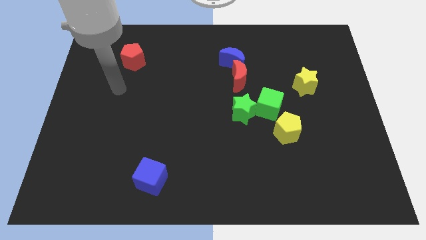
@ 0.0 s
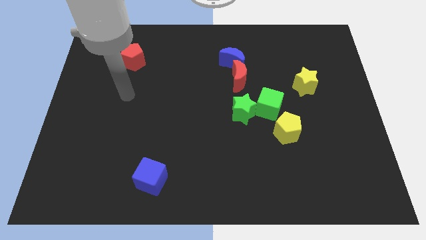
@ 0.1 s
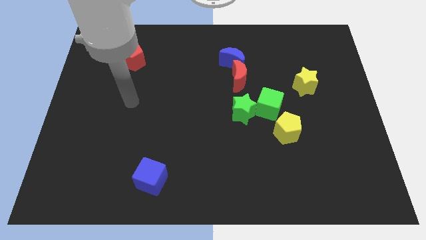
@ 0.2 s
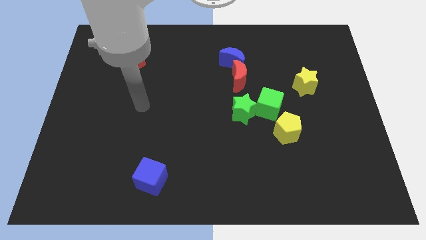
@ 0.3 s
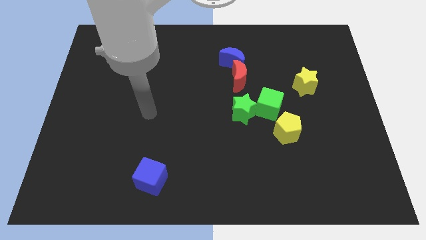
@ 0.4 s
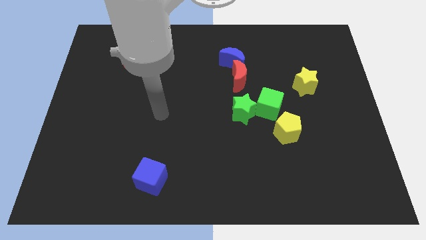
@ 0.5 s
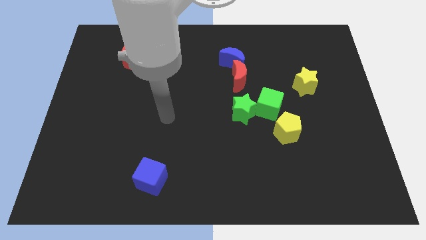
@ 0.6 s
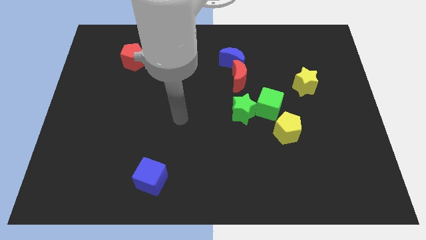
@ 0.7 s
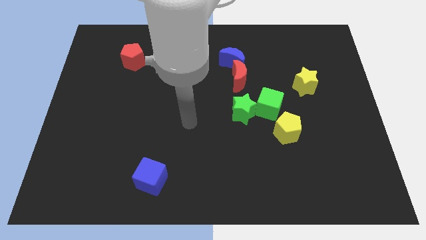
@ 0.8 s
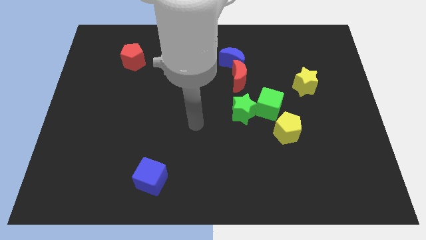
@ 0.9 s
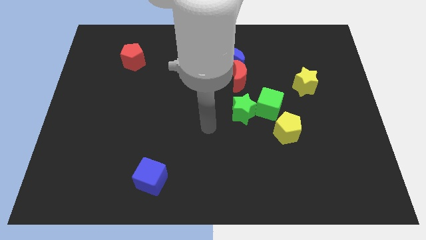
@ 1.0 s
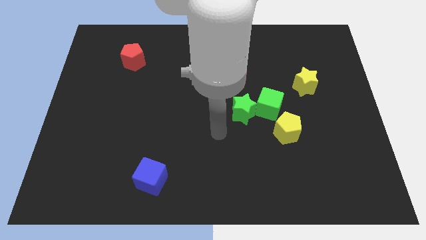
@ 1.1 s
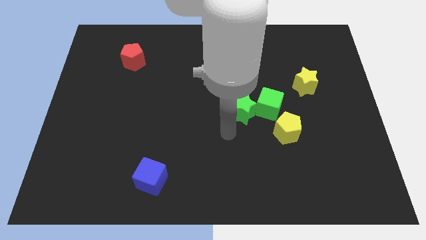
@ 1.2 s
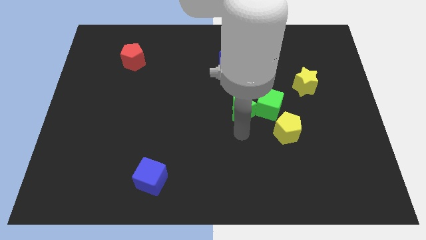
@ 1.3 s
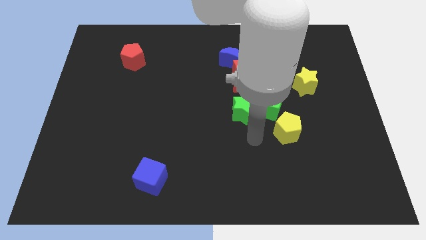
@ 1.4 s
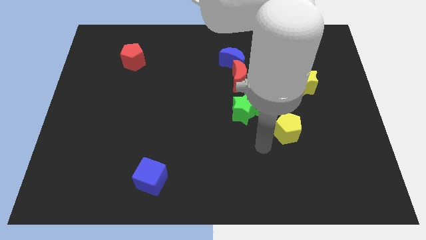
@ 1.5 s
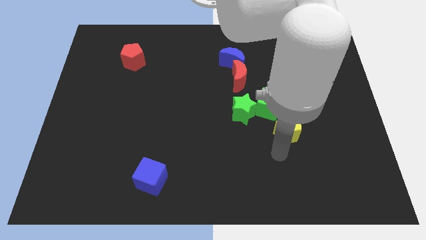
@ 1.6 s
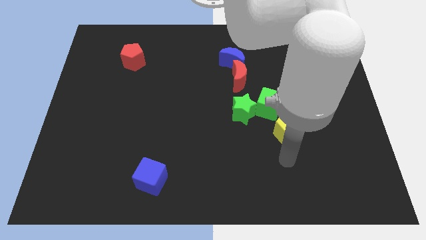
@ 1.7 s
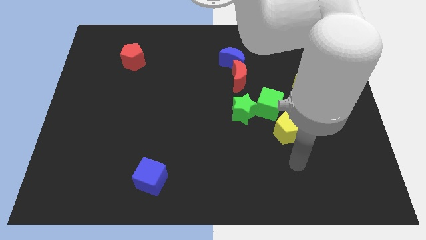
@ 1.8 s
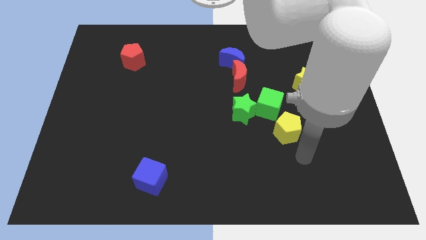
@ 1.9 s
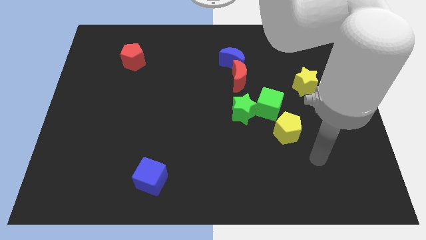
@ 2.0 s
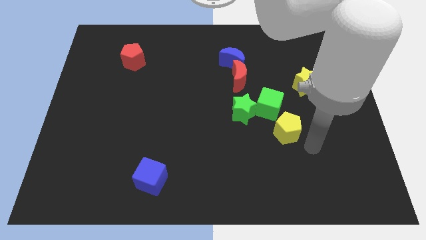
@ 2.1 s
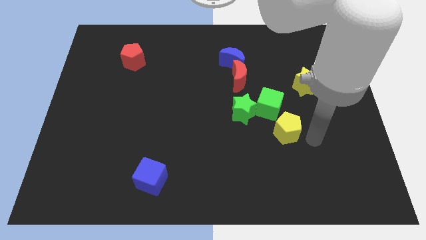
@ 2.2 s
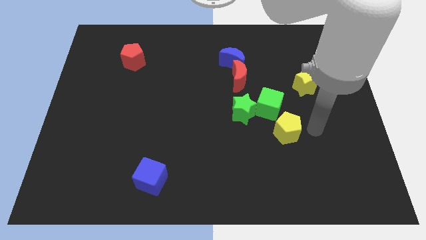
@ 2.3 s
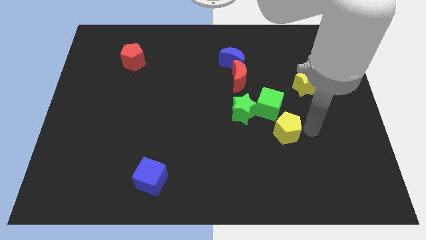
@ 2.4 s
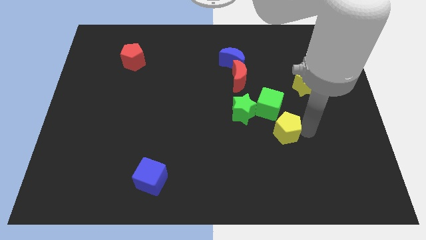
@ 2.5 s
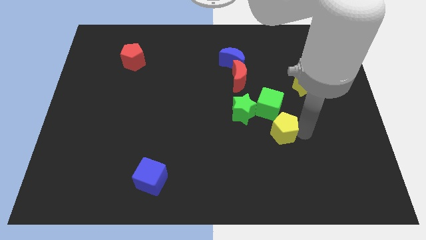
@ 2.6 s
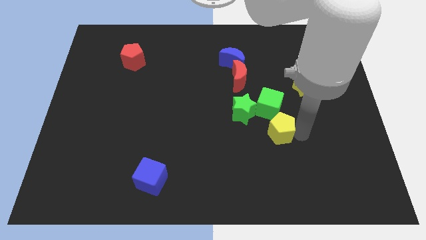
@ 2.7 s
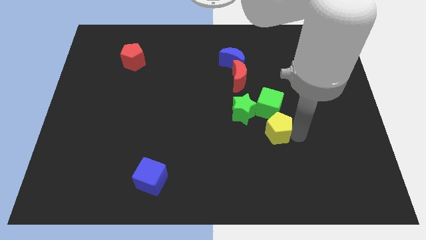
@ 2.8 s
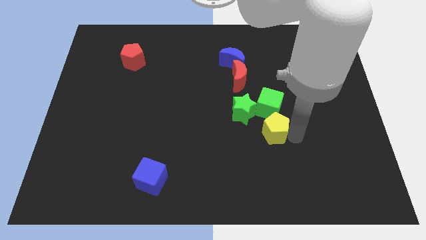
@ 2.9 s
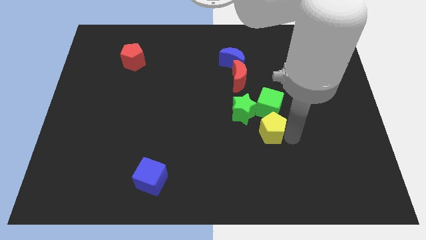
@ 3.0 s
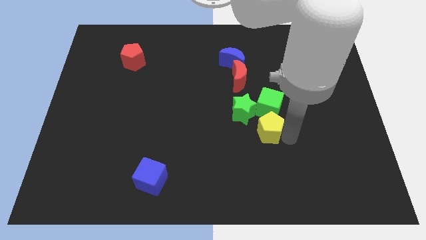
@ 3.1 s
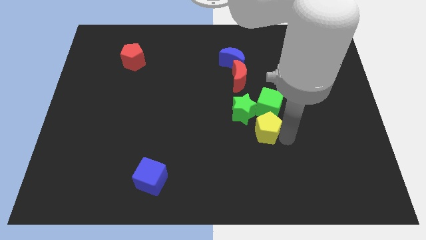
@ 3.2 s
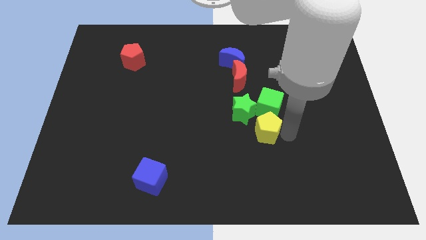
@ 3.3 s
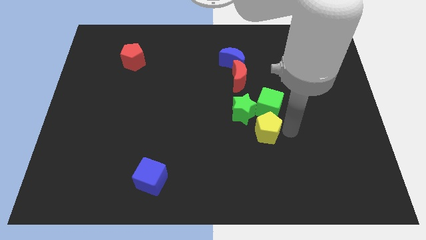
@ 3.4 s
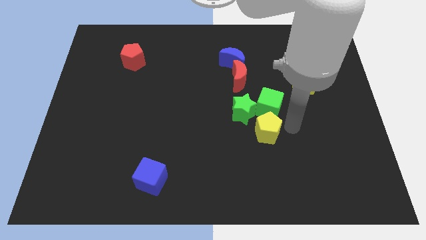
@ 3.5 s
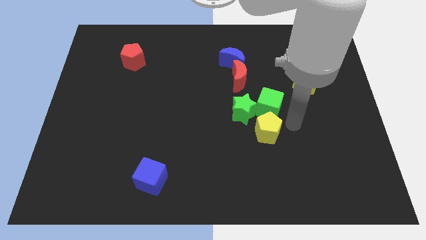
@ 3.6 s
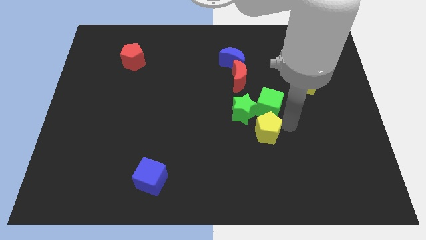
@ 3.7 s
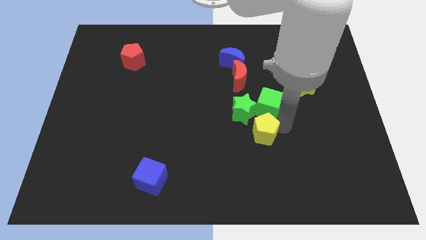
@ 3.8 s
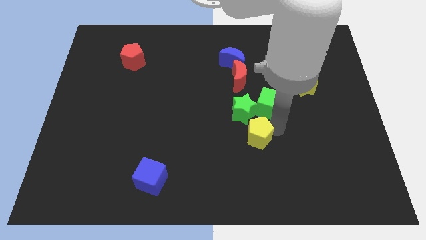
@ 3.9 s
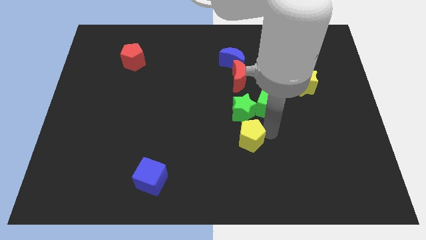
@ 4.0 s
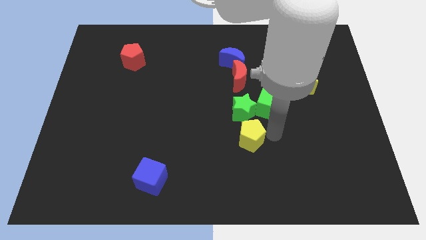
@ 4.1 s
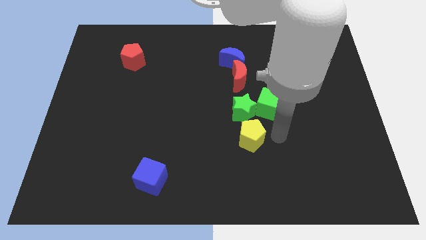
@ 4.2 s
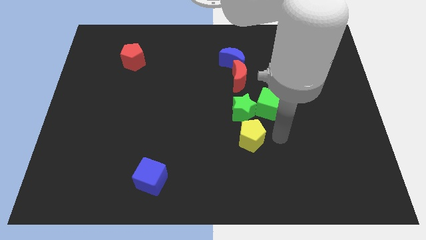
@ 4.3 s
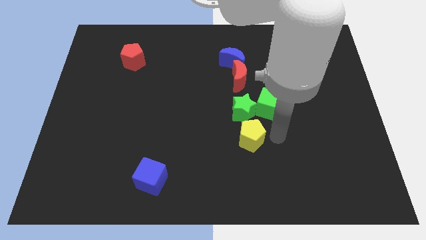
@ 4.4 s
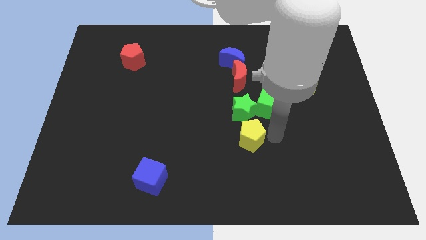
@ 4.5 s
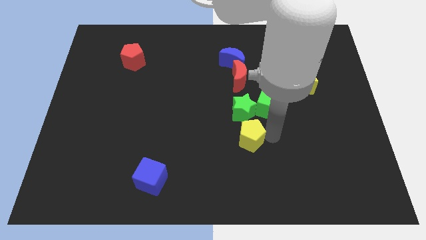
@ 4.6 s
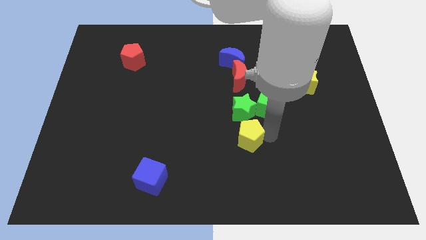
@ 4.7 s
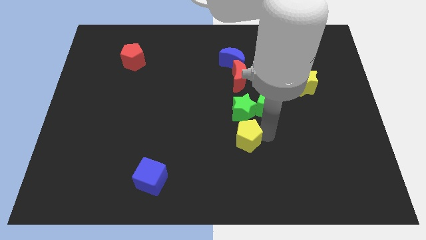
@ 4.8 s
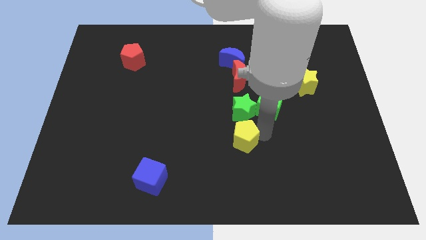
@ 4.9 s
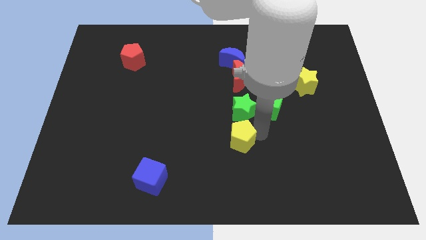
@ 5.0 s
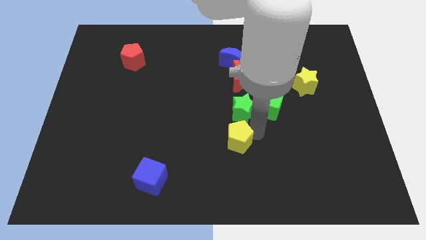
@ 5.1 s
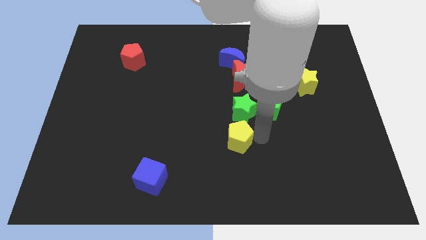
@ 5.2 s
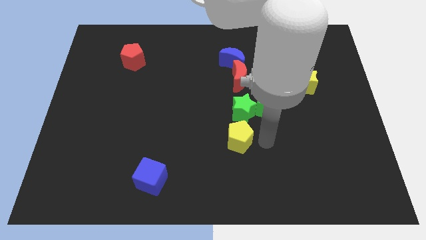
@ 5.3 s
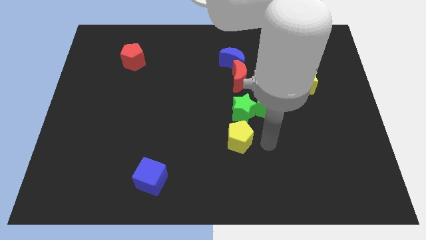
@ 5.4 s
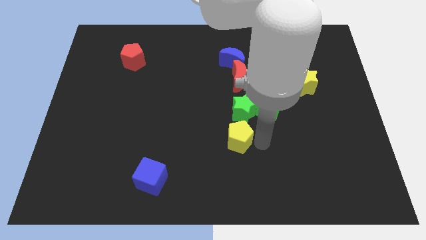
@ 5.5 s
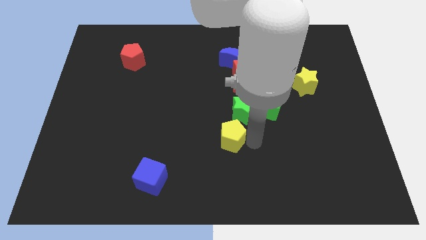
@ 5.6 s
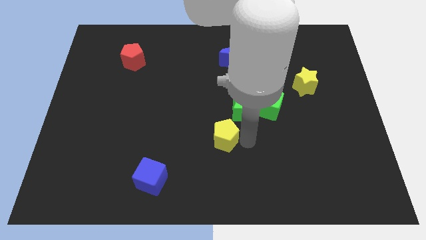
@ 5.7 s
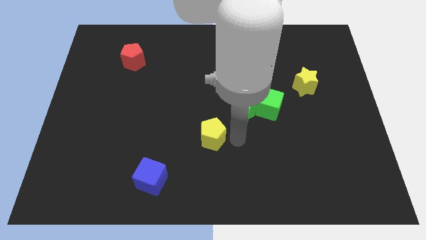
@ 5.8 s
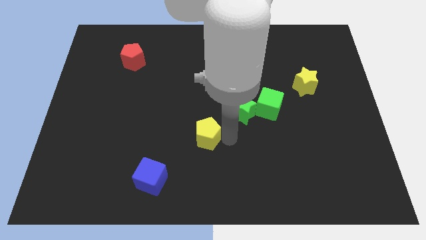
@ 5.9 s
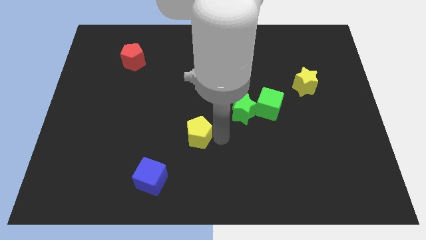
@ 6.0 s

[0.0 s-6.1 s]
slide the yellow pentagon left

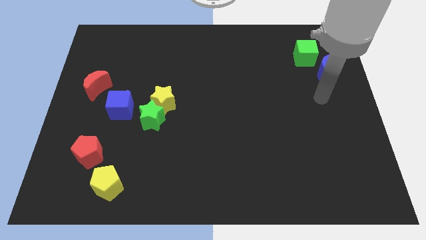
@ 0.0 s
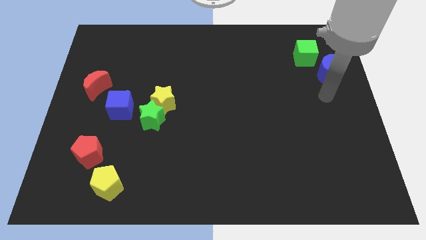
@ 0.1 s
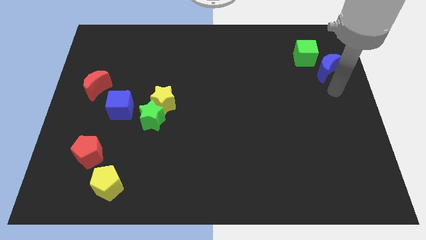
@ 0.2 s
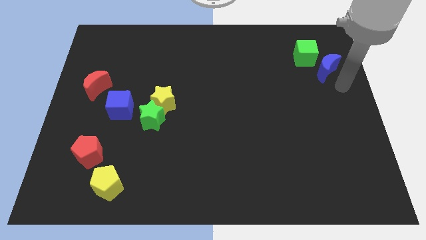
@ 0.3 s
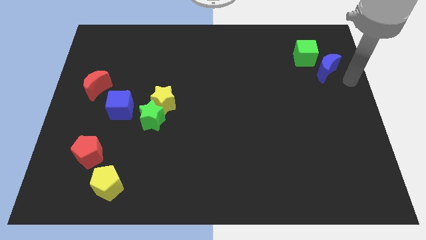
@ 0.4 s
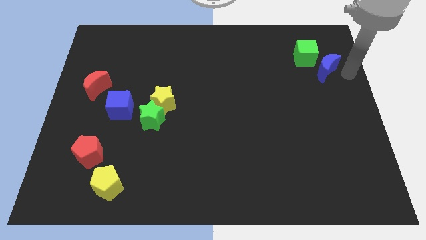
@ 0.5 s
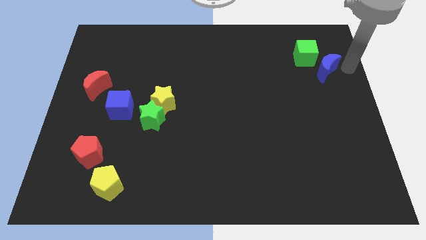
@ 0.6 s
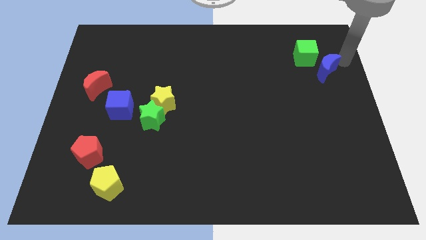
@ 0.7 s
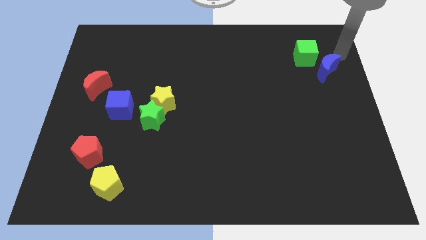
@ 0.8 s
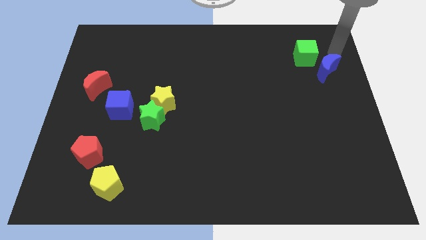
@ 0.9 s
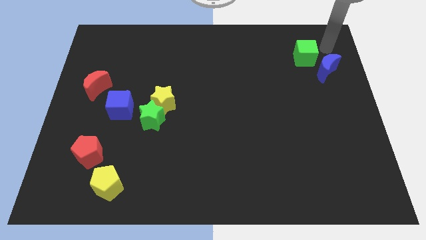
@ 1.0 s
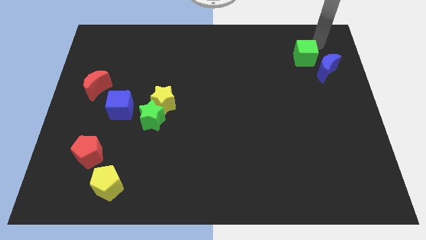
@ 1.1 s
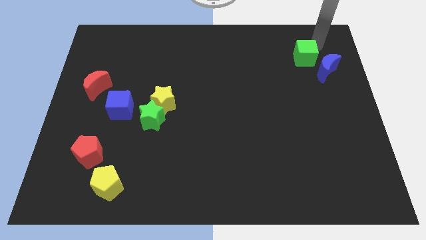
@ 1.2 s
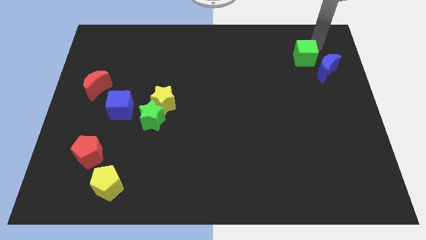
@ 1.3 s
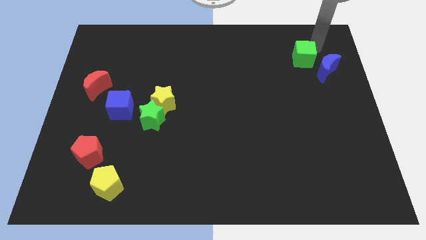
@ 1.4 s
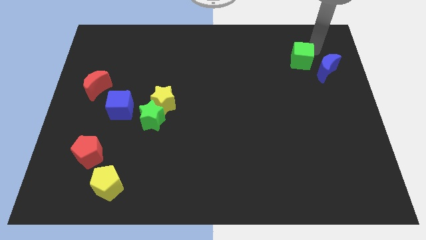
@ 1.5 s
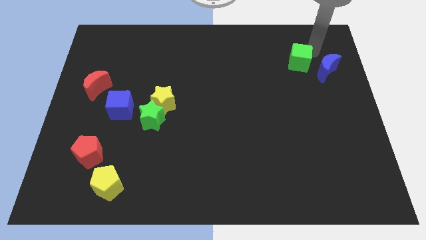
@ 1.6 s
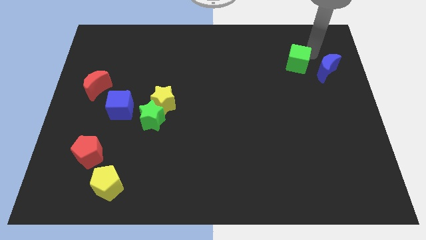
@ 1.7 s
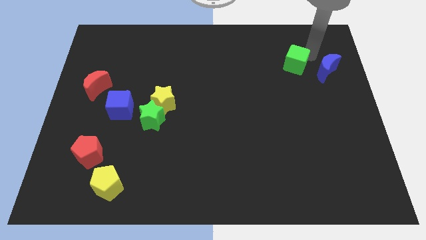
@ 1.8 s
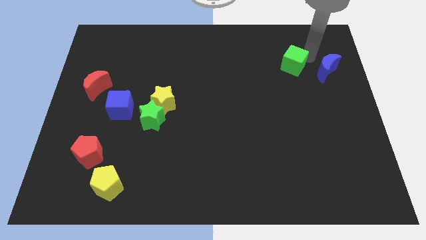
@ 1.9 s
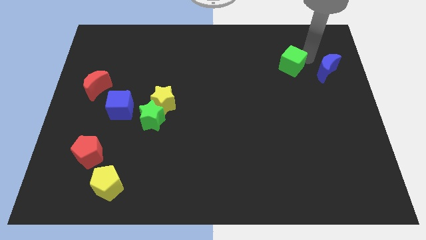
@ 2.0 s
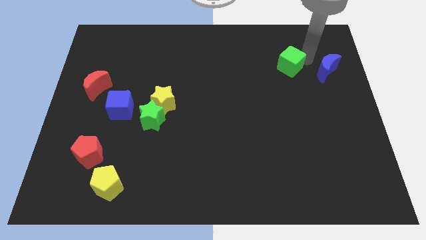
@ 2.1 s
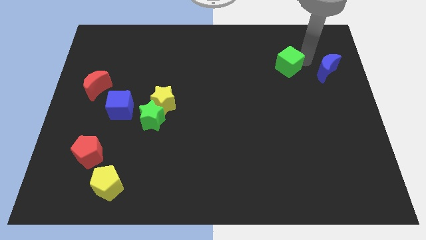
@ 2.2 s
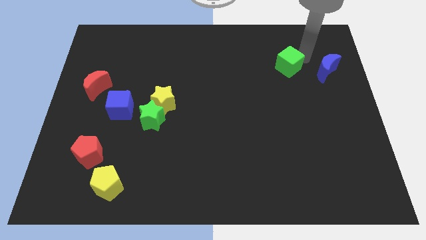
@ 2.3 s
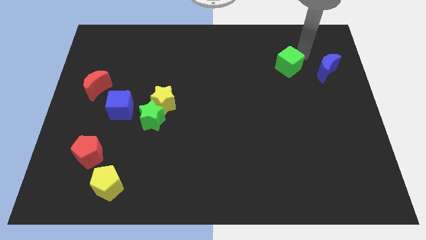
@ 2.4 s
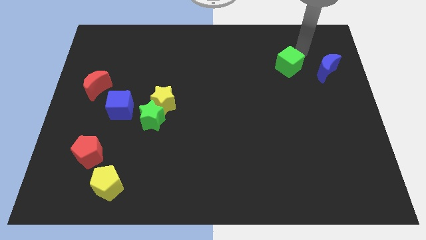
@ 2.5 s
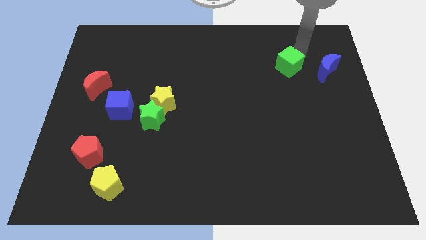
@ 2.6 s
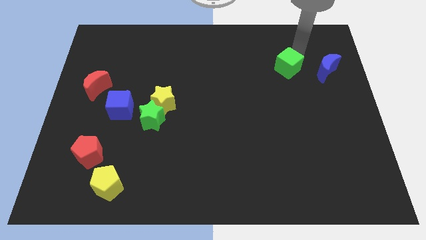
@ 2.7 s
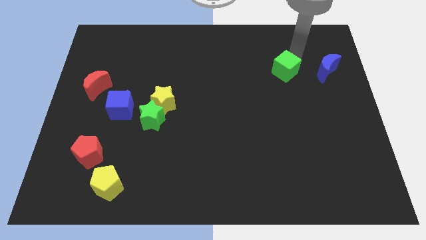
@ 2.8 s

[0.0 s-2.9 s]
move the green cube slightly downwards and left
